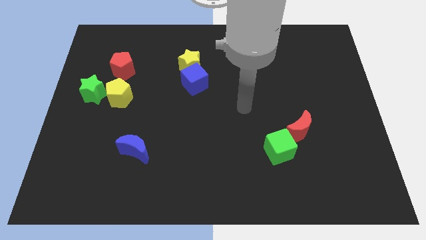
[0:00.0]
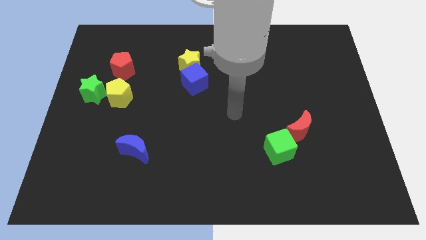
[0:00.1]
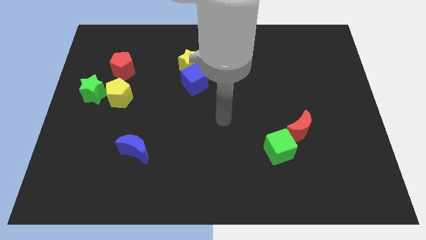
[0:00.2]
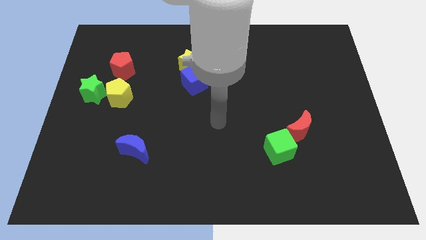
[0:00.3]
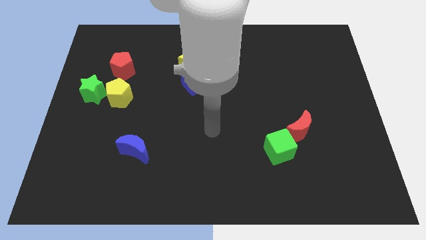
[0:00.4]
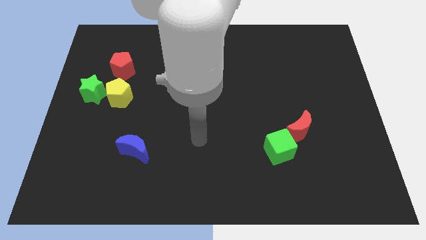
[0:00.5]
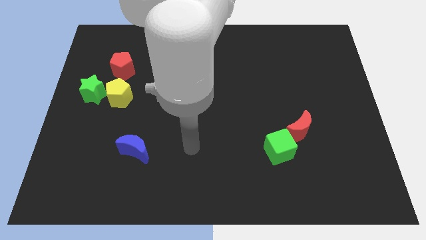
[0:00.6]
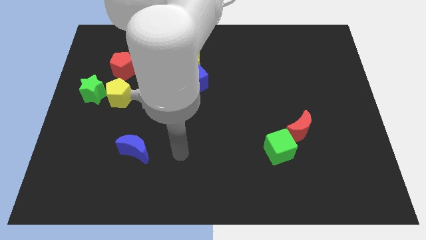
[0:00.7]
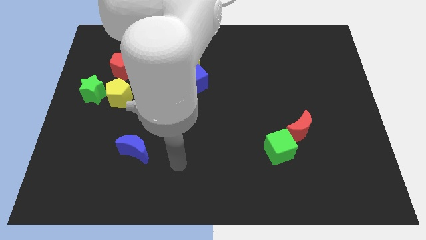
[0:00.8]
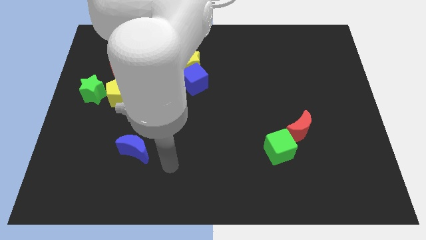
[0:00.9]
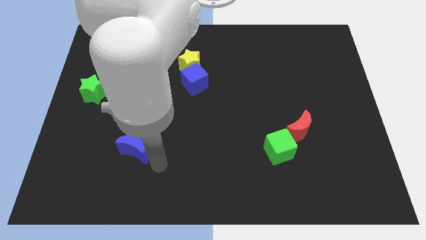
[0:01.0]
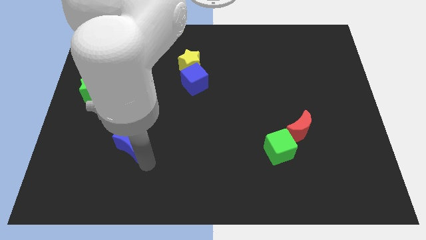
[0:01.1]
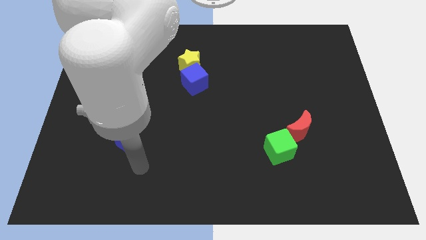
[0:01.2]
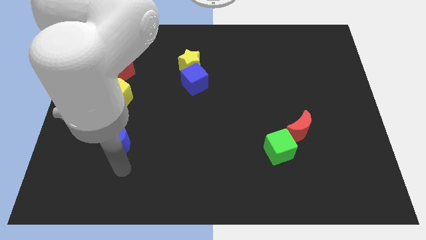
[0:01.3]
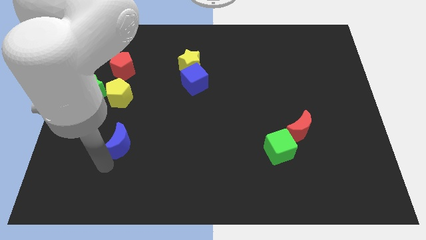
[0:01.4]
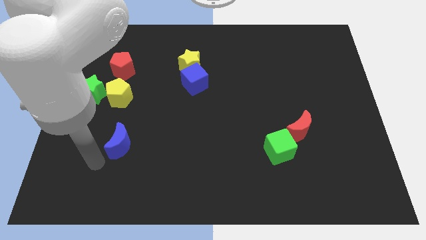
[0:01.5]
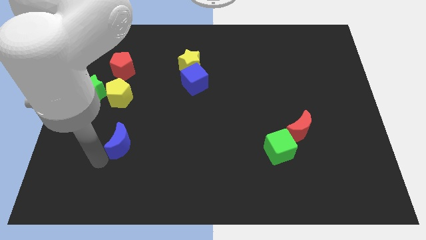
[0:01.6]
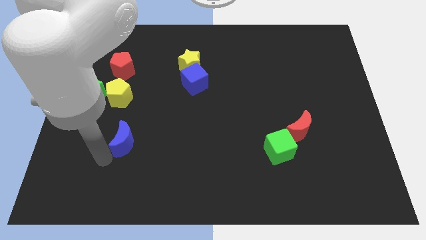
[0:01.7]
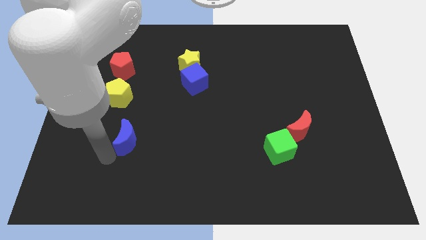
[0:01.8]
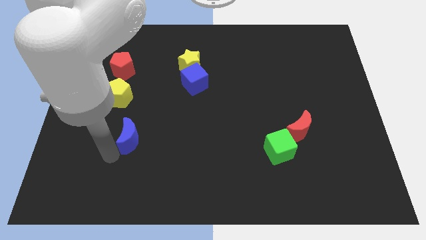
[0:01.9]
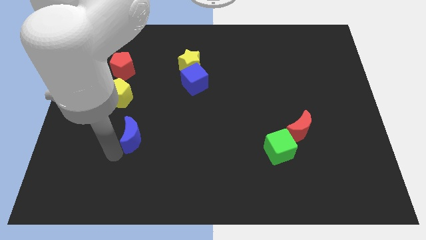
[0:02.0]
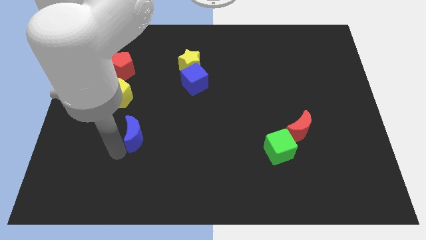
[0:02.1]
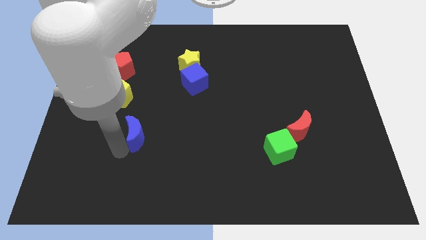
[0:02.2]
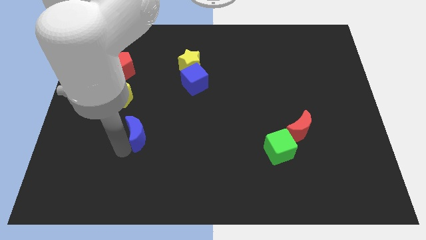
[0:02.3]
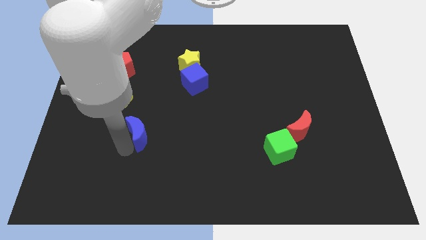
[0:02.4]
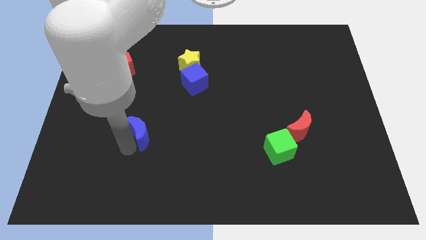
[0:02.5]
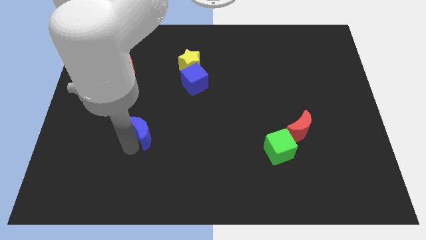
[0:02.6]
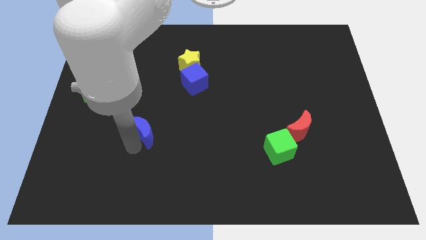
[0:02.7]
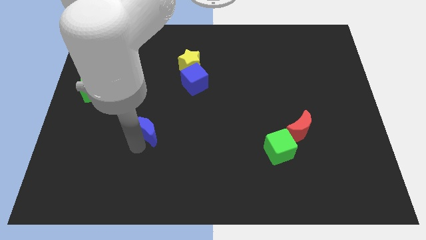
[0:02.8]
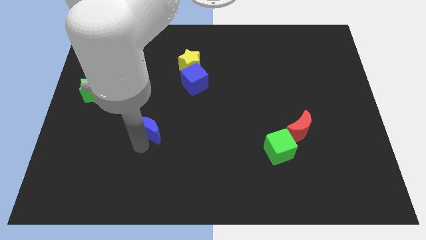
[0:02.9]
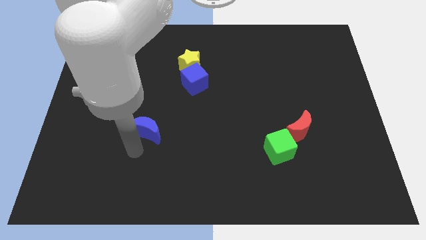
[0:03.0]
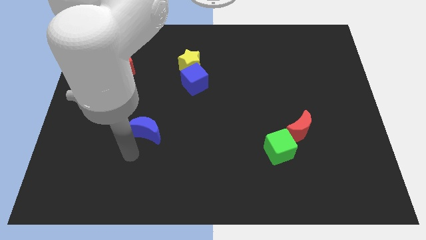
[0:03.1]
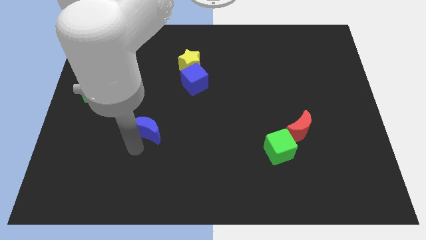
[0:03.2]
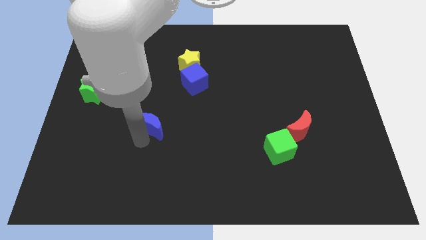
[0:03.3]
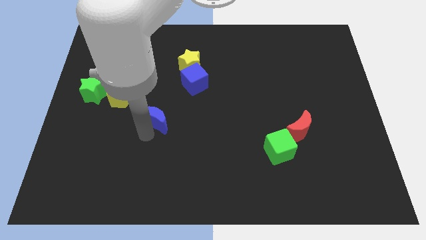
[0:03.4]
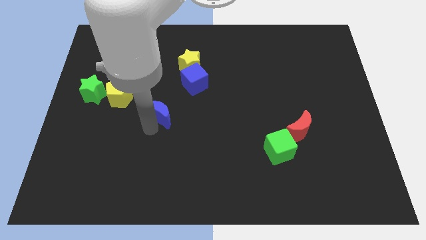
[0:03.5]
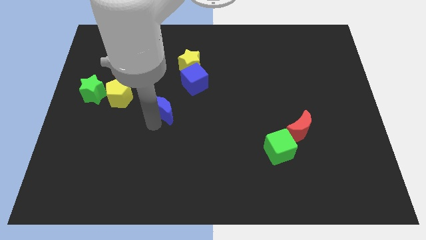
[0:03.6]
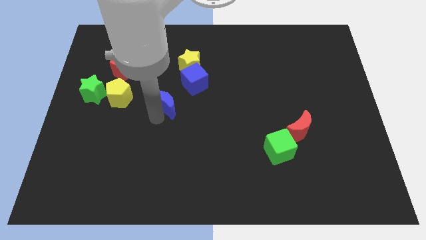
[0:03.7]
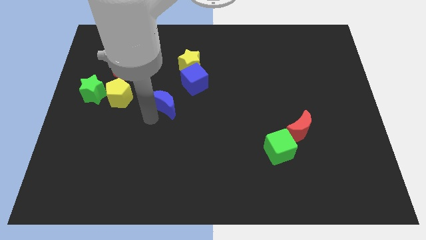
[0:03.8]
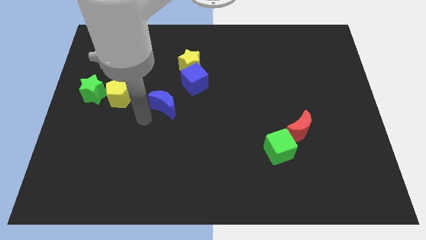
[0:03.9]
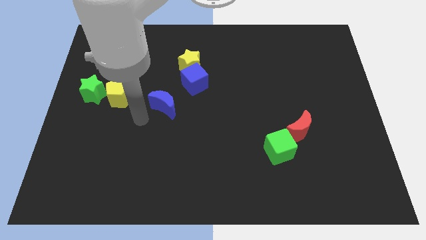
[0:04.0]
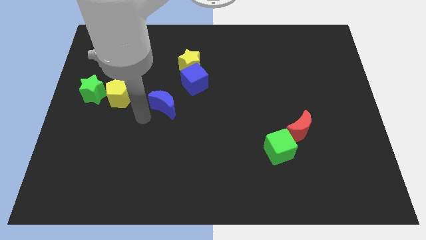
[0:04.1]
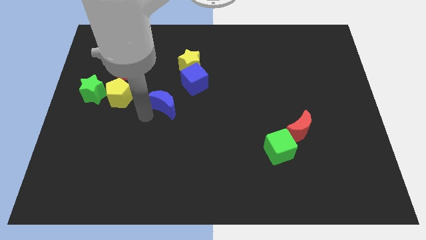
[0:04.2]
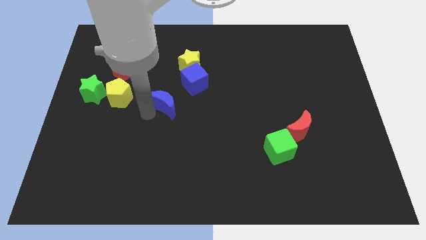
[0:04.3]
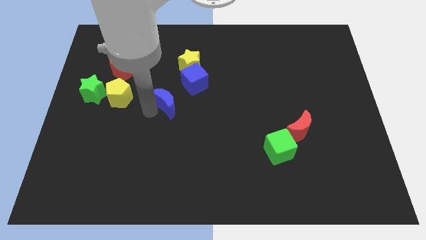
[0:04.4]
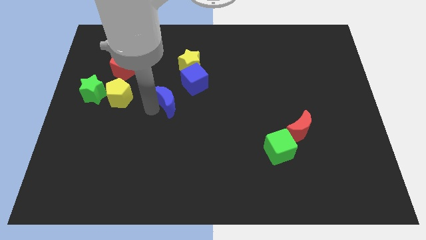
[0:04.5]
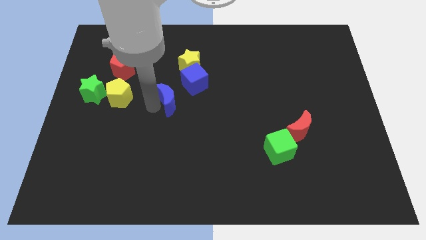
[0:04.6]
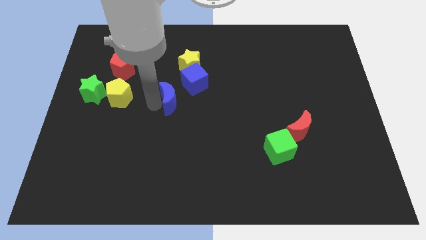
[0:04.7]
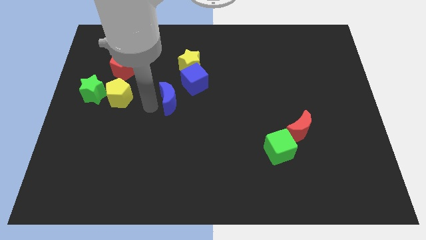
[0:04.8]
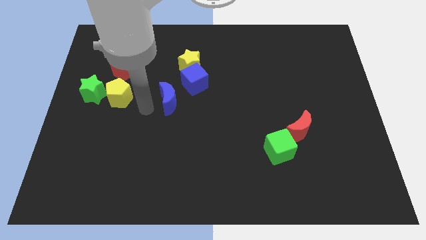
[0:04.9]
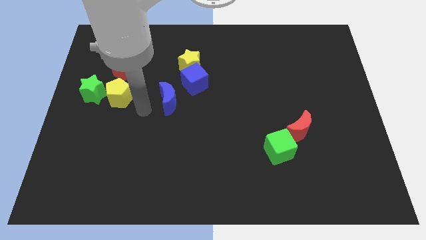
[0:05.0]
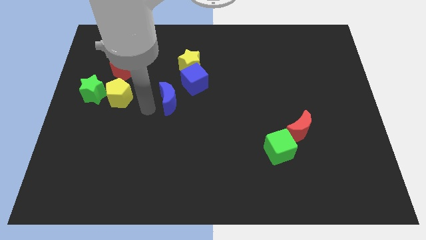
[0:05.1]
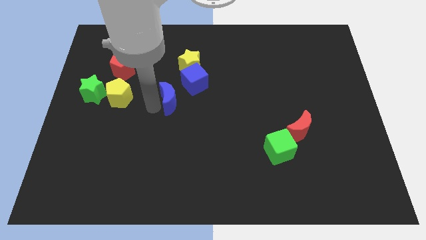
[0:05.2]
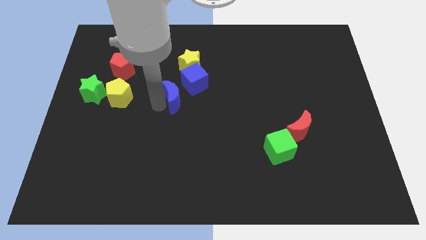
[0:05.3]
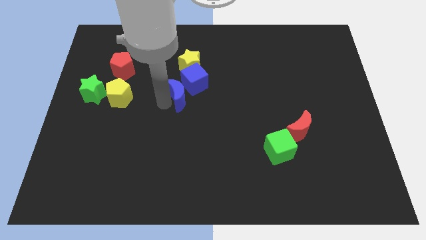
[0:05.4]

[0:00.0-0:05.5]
slide the blue moon to the blue cube

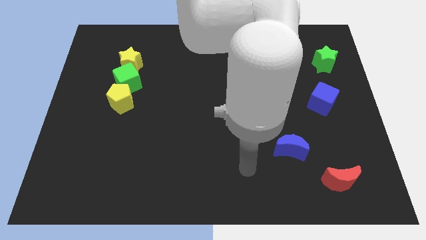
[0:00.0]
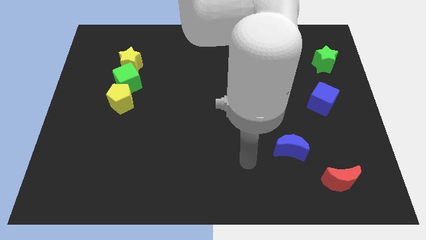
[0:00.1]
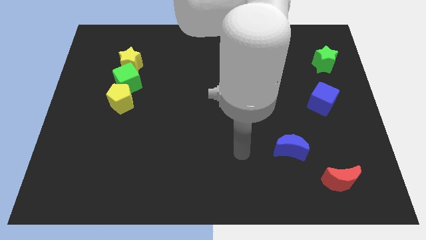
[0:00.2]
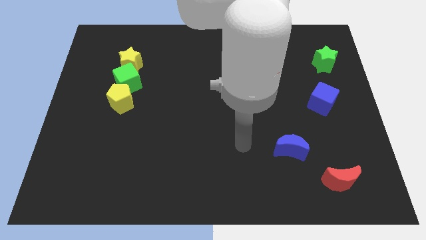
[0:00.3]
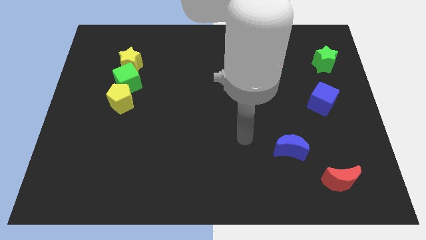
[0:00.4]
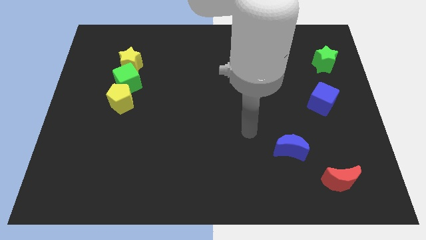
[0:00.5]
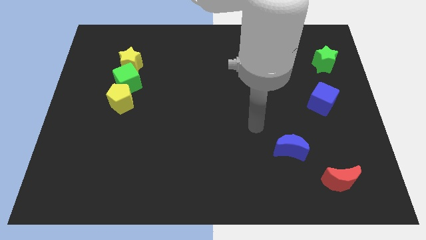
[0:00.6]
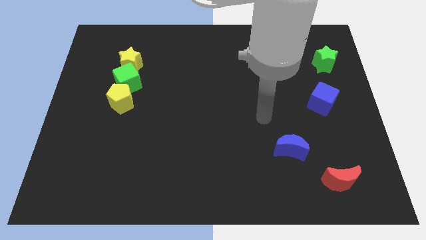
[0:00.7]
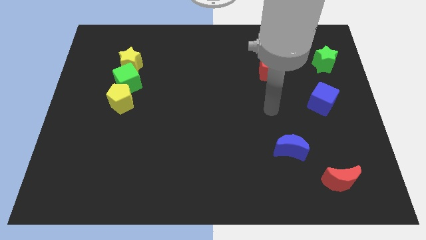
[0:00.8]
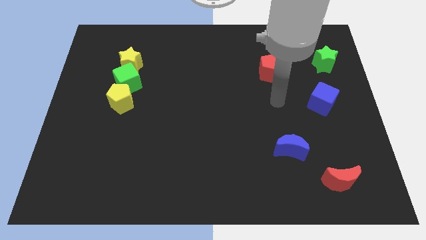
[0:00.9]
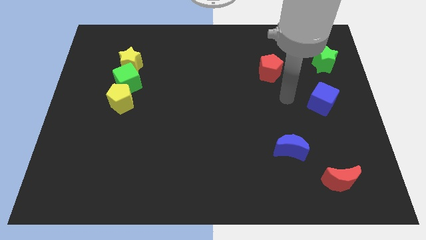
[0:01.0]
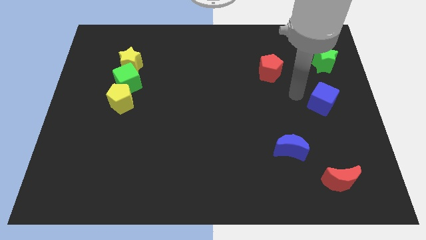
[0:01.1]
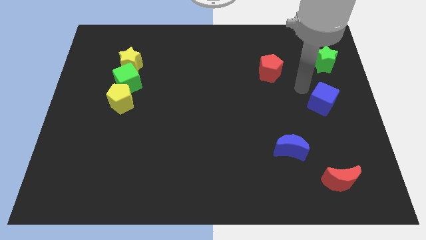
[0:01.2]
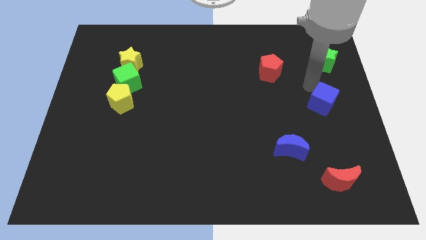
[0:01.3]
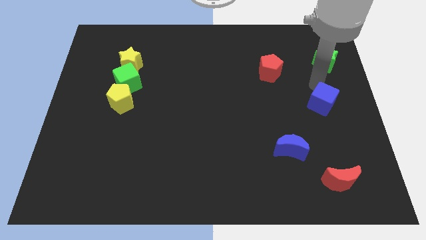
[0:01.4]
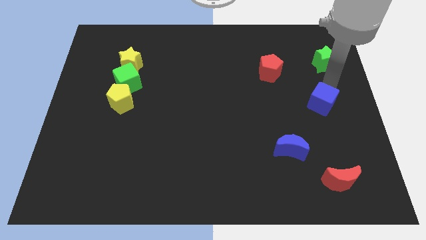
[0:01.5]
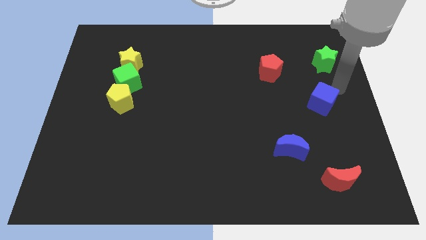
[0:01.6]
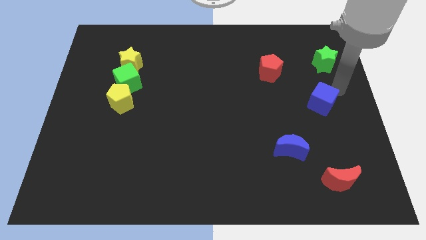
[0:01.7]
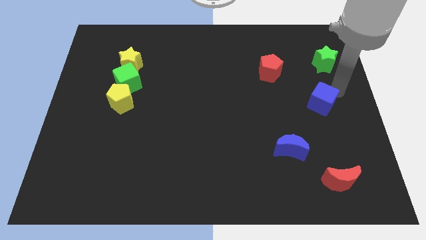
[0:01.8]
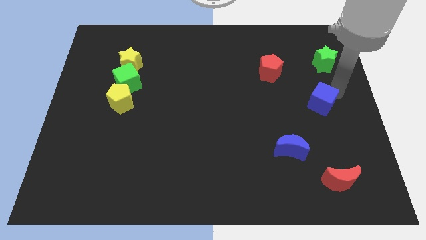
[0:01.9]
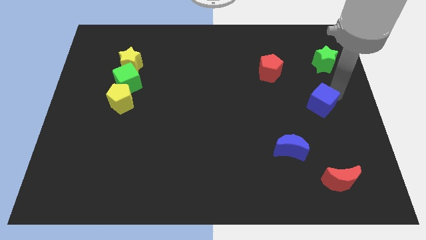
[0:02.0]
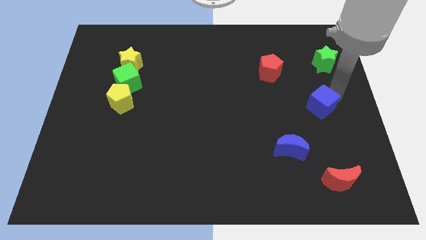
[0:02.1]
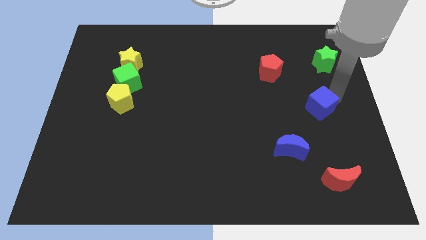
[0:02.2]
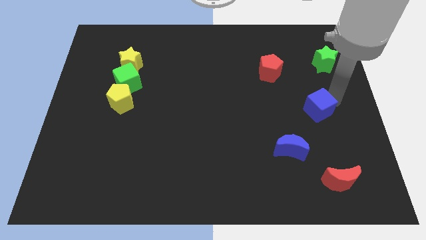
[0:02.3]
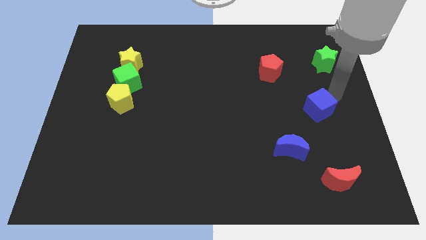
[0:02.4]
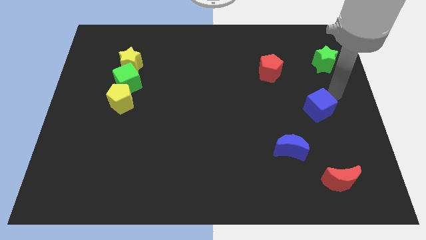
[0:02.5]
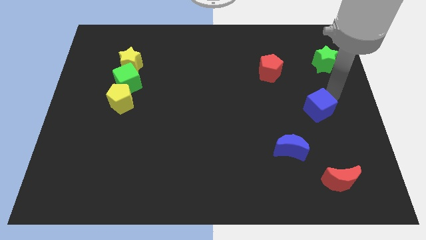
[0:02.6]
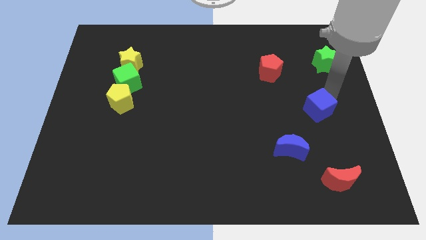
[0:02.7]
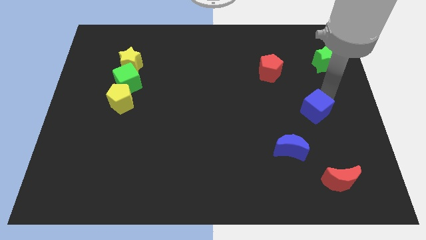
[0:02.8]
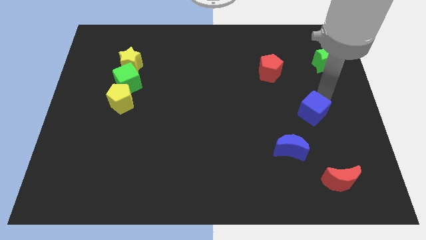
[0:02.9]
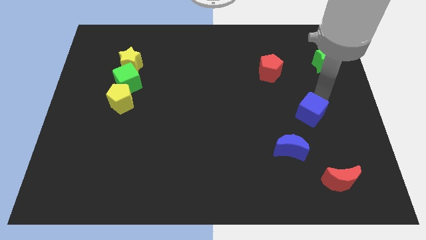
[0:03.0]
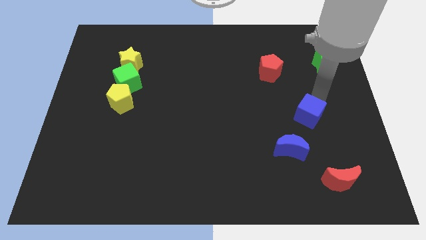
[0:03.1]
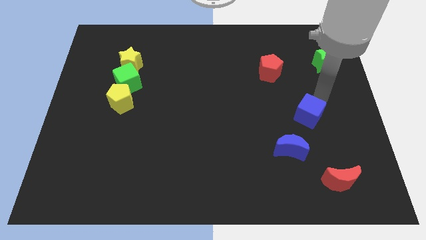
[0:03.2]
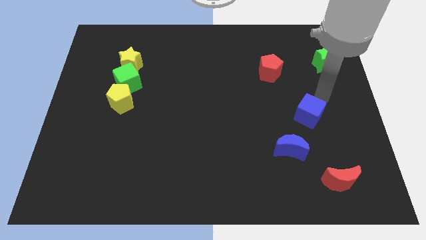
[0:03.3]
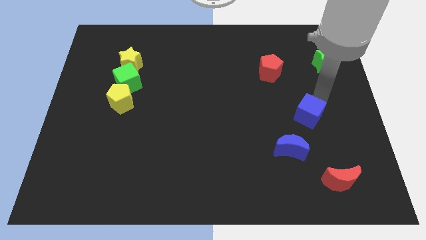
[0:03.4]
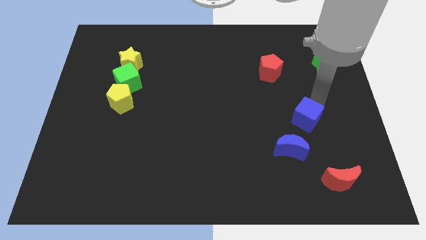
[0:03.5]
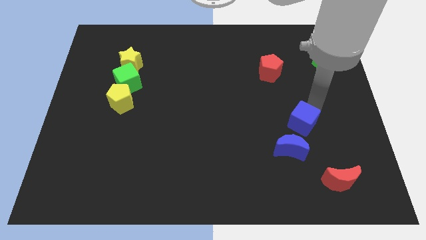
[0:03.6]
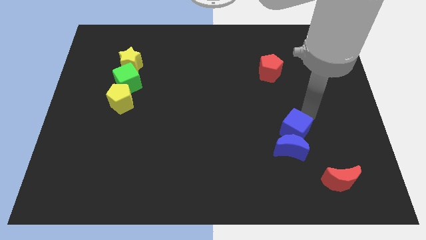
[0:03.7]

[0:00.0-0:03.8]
put the blue cube towards the blue moon
